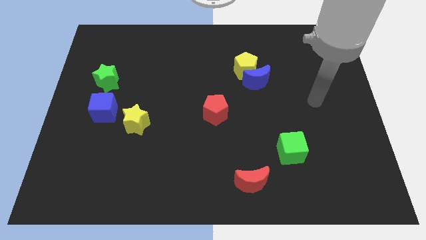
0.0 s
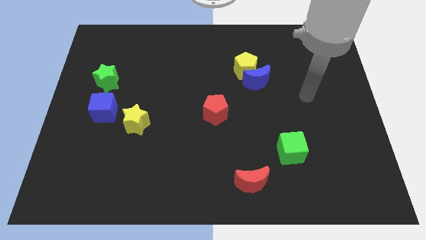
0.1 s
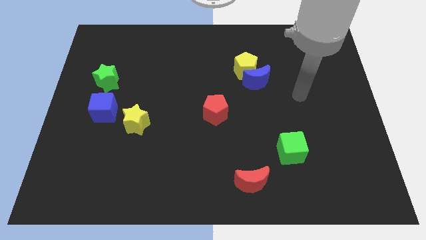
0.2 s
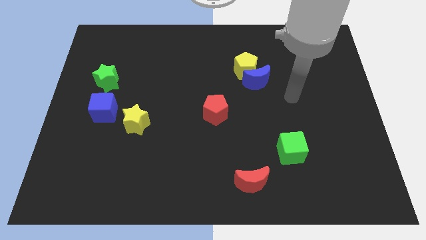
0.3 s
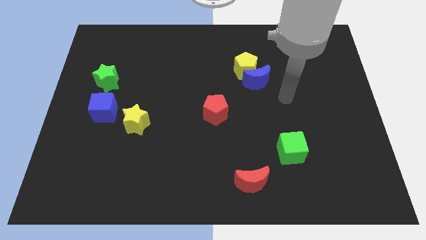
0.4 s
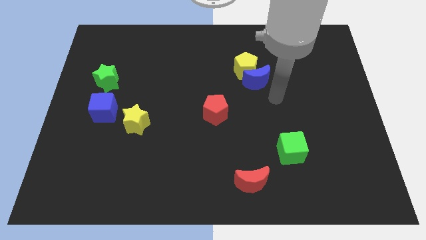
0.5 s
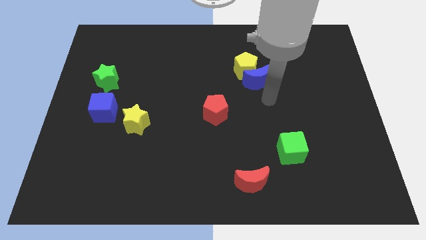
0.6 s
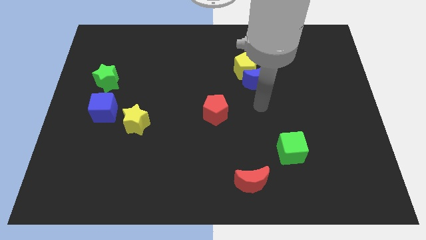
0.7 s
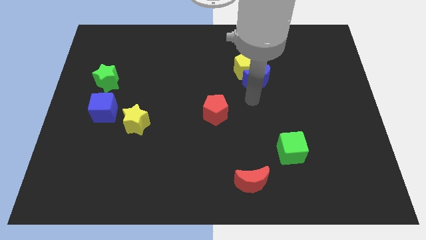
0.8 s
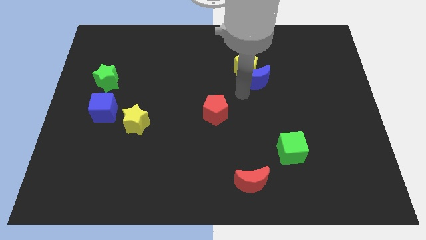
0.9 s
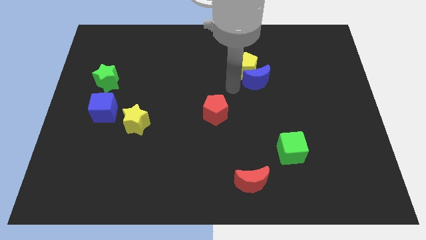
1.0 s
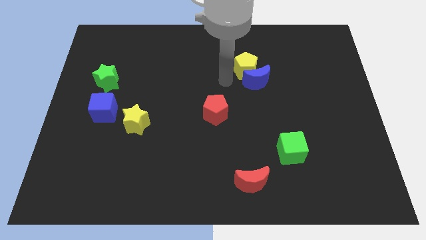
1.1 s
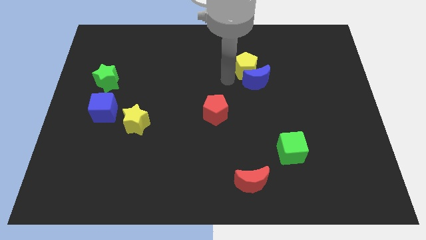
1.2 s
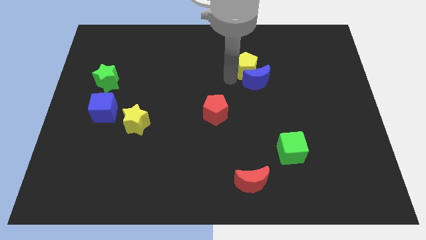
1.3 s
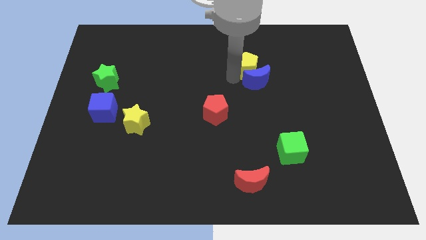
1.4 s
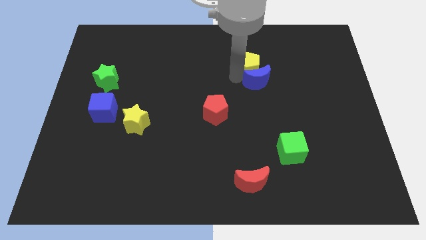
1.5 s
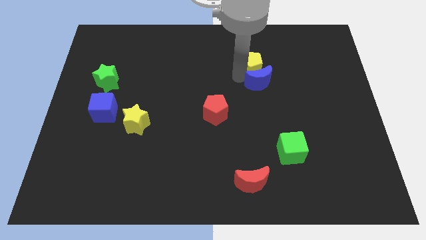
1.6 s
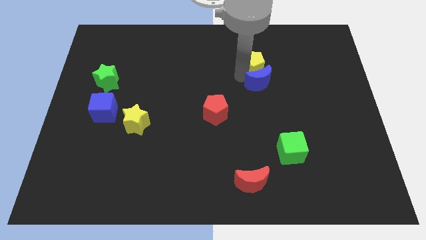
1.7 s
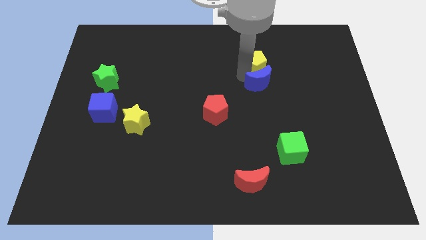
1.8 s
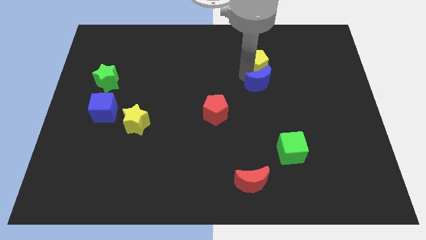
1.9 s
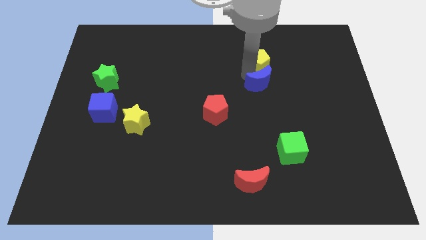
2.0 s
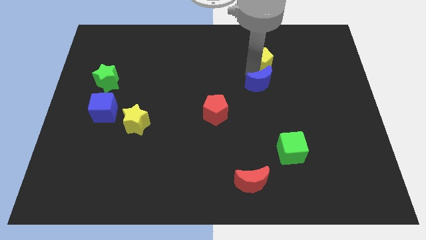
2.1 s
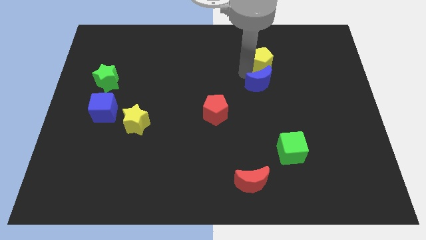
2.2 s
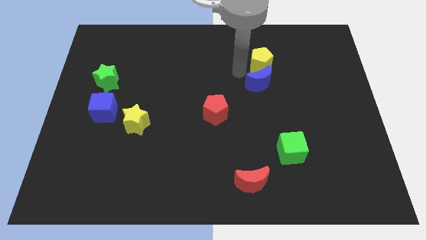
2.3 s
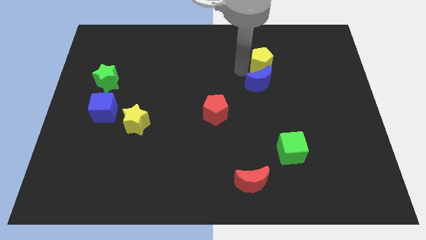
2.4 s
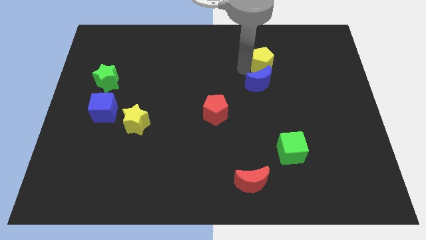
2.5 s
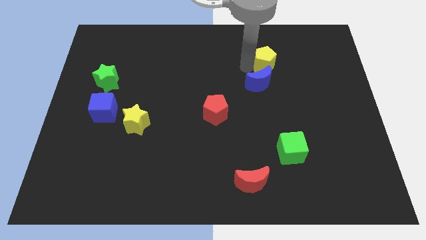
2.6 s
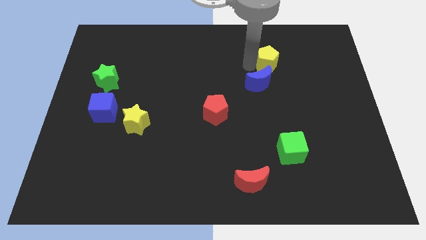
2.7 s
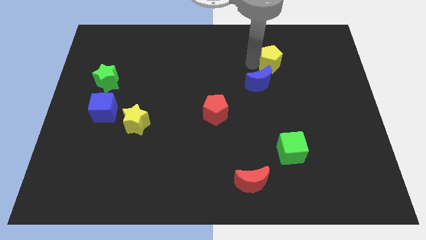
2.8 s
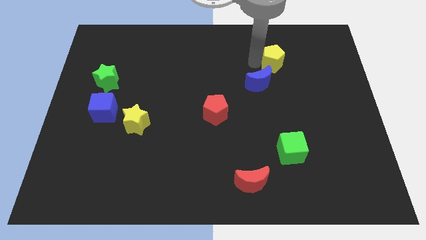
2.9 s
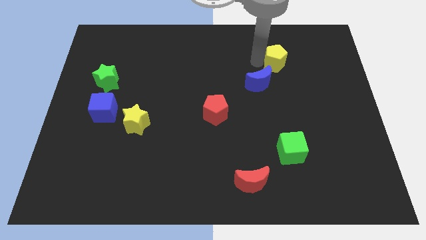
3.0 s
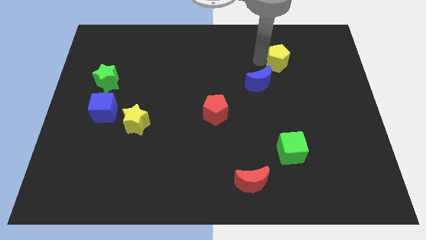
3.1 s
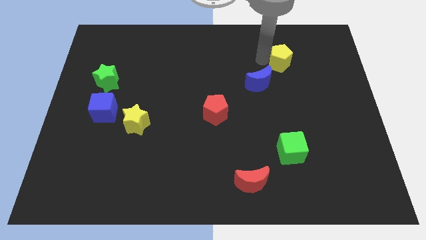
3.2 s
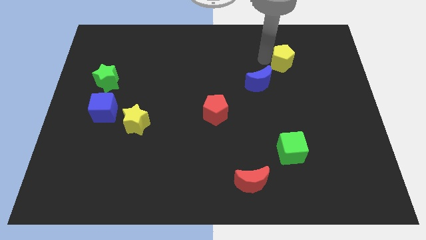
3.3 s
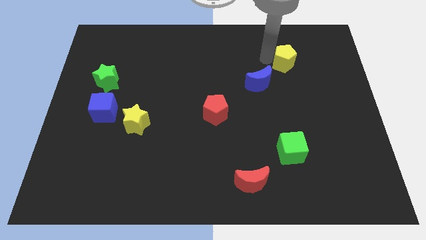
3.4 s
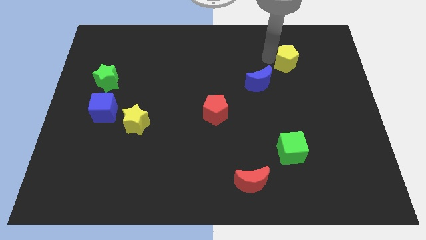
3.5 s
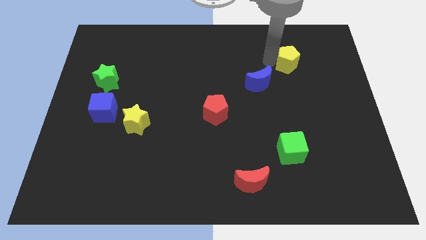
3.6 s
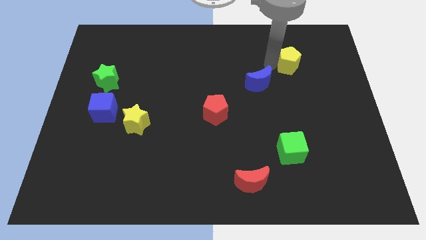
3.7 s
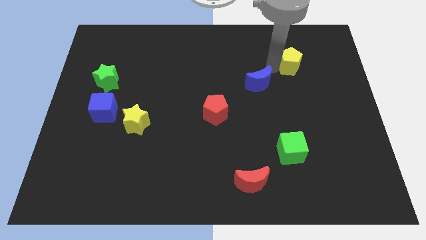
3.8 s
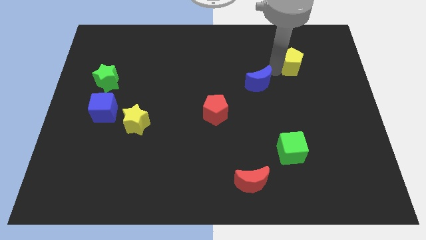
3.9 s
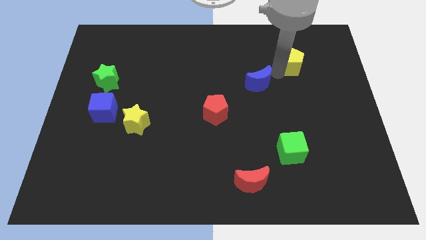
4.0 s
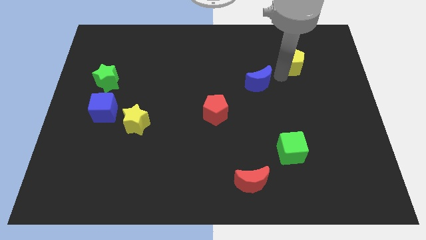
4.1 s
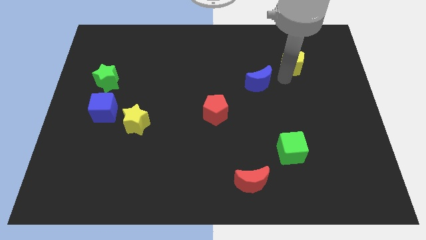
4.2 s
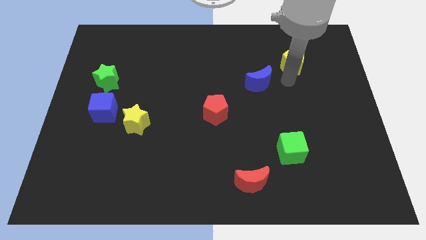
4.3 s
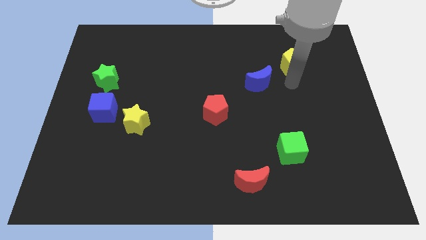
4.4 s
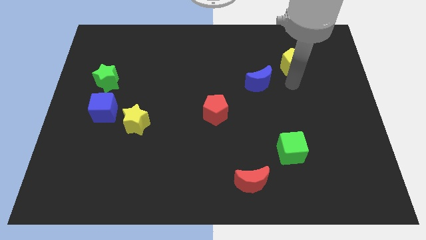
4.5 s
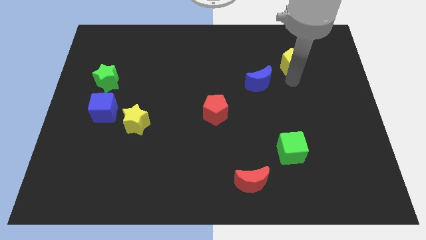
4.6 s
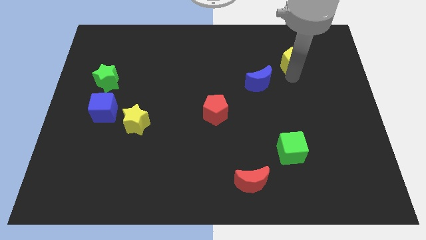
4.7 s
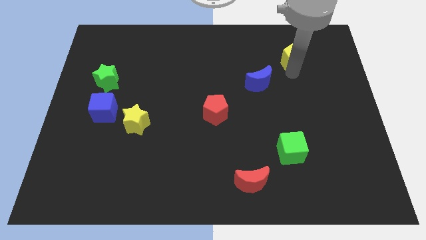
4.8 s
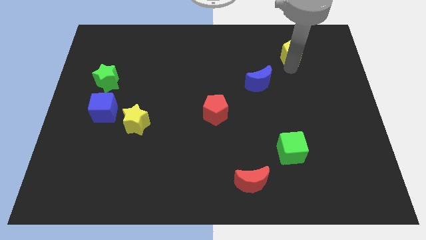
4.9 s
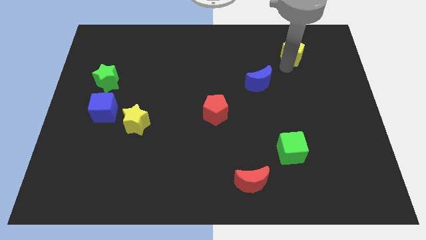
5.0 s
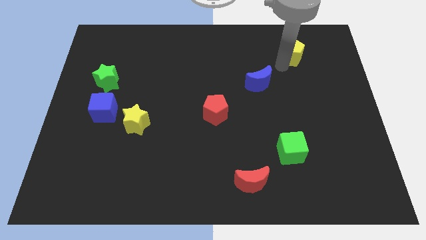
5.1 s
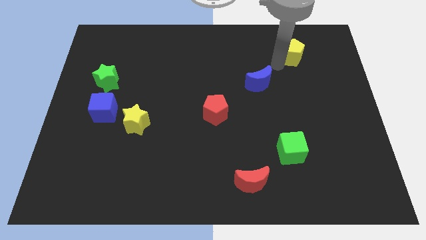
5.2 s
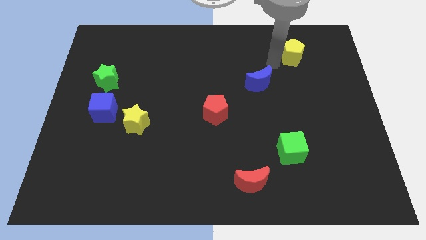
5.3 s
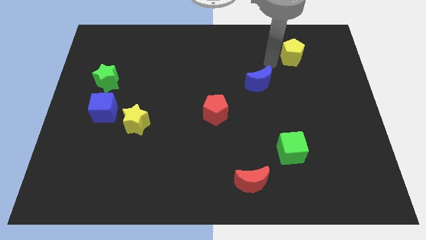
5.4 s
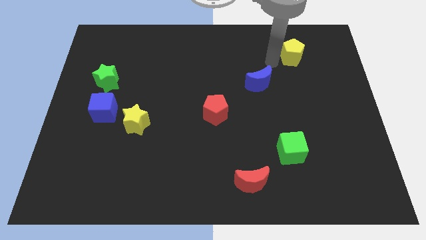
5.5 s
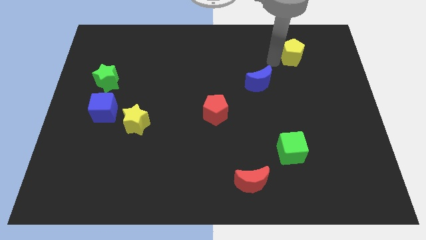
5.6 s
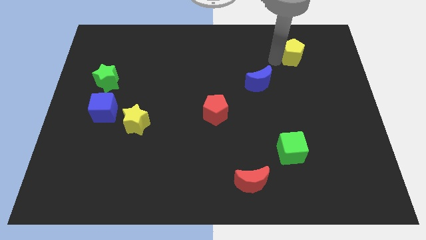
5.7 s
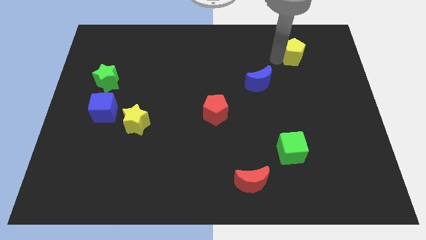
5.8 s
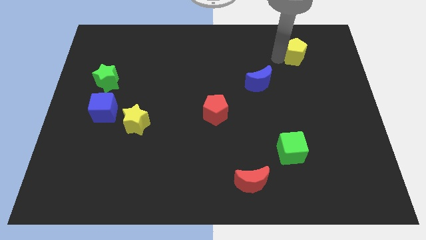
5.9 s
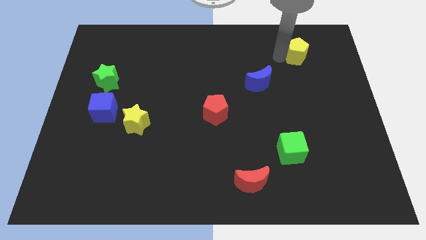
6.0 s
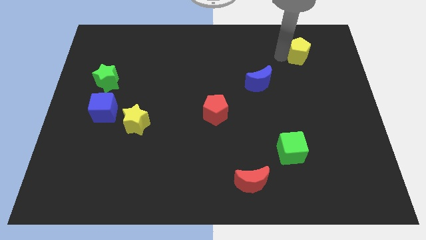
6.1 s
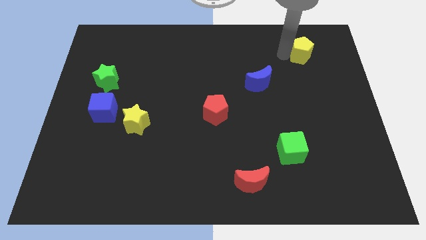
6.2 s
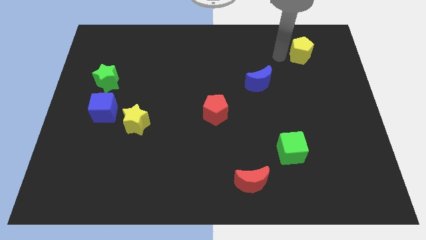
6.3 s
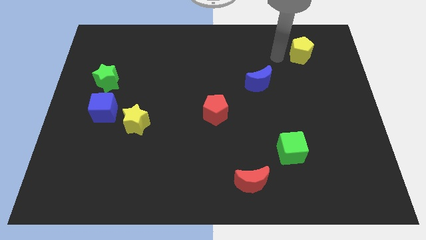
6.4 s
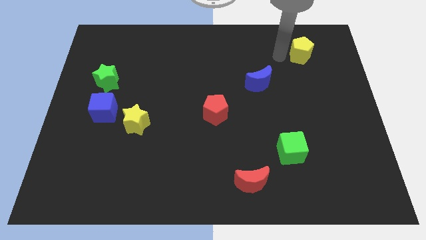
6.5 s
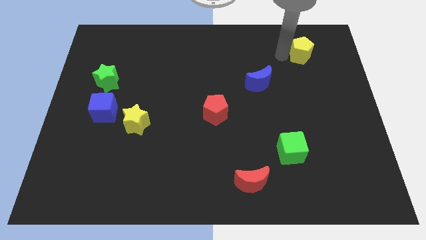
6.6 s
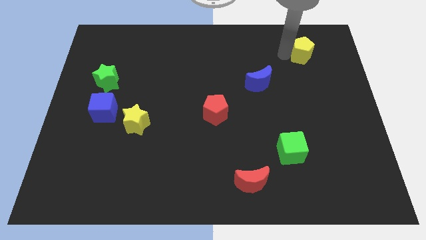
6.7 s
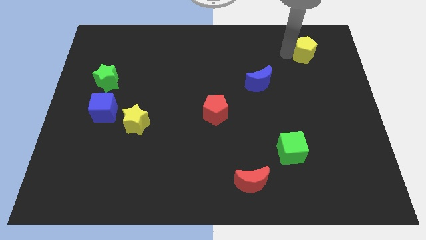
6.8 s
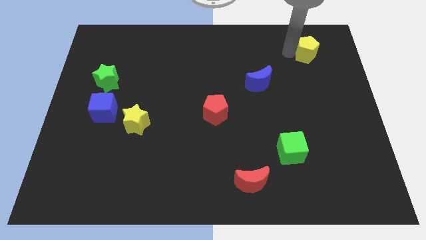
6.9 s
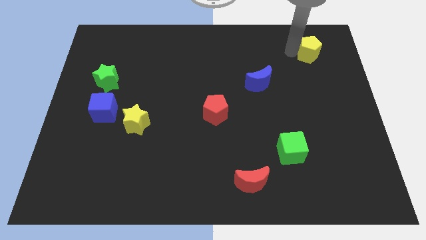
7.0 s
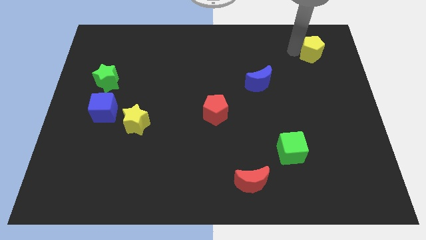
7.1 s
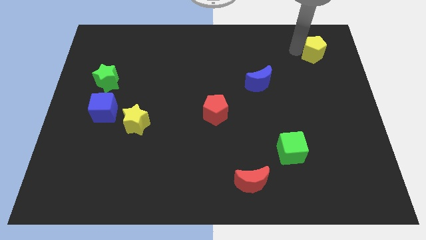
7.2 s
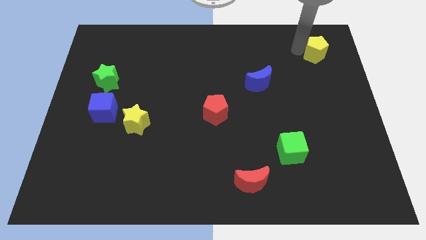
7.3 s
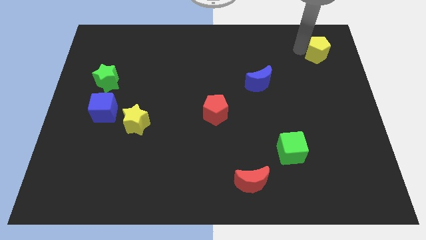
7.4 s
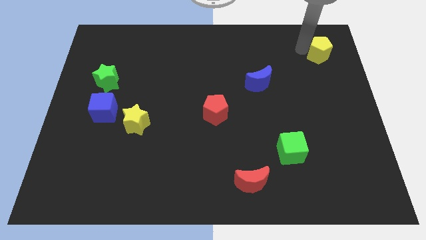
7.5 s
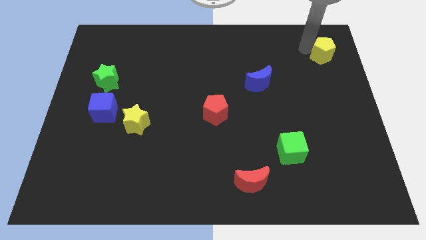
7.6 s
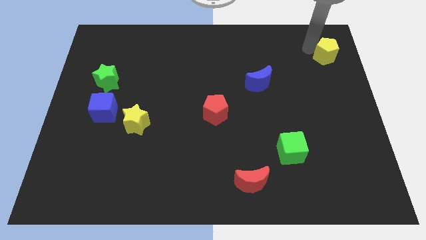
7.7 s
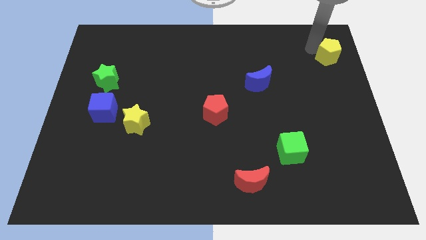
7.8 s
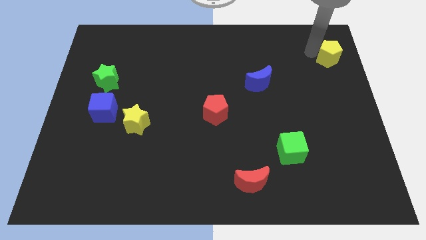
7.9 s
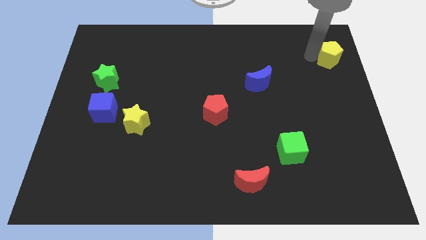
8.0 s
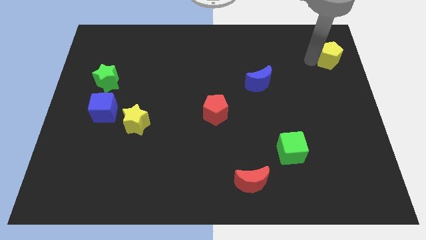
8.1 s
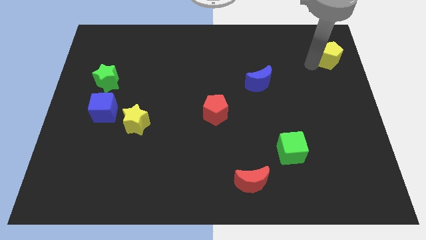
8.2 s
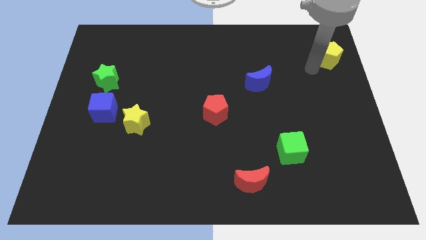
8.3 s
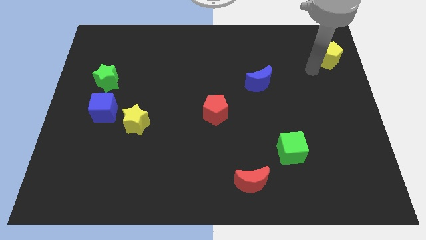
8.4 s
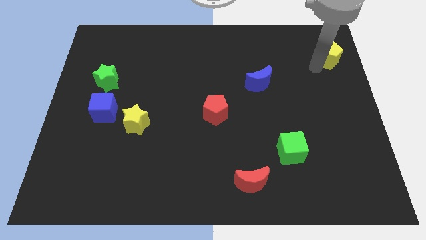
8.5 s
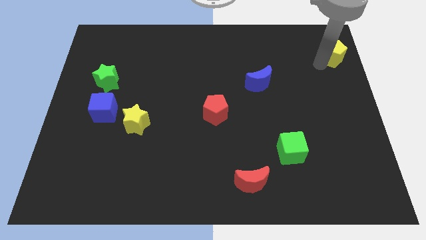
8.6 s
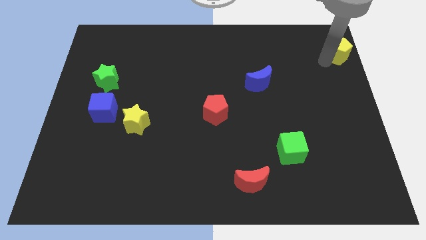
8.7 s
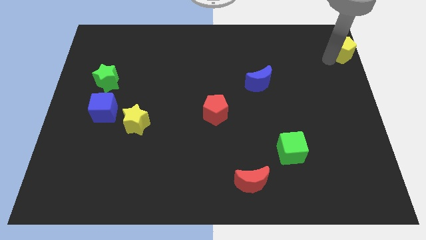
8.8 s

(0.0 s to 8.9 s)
move the yellow pentagon to the top right
